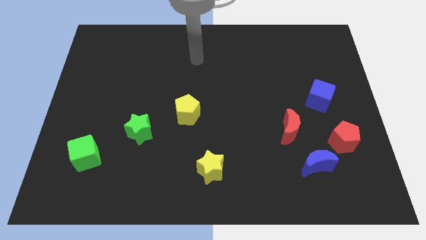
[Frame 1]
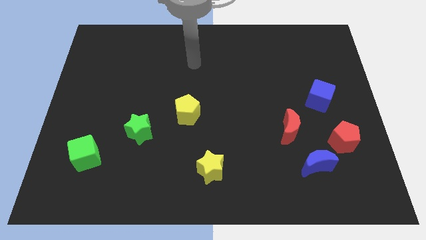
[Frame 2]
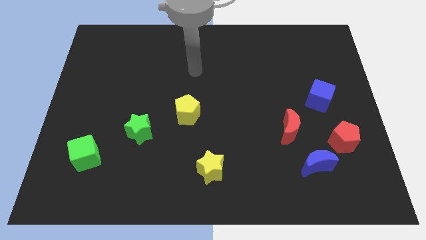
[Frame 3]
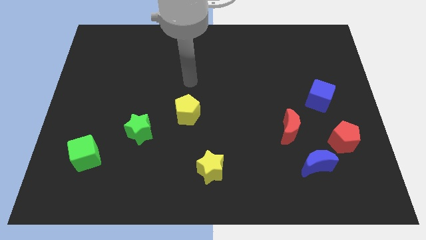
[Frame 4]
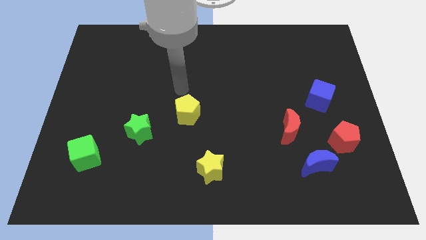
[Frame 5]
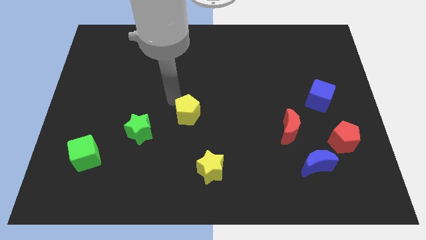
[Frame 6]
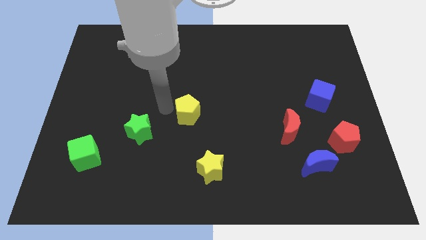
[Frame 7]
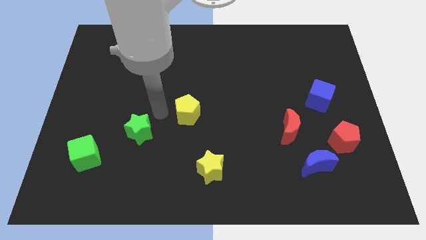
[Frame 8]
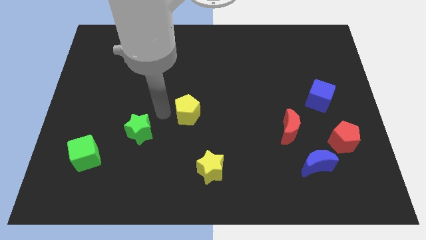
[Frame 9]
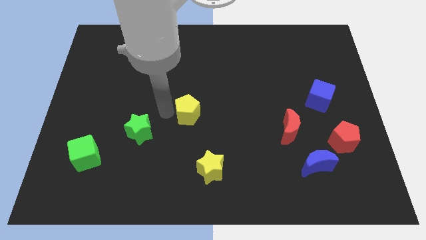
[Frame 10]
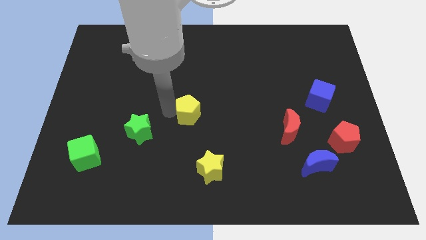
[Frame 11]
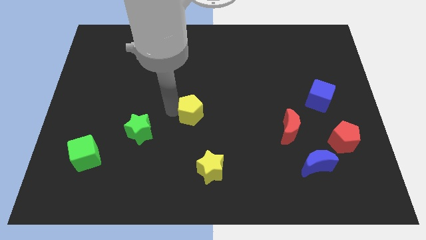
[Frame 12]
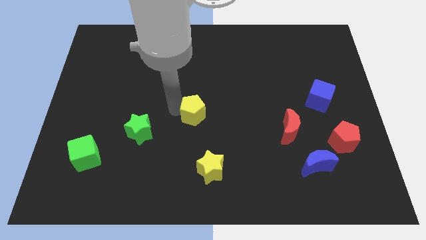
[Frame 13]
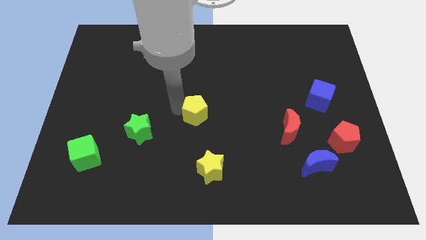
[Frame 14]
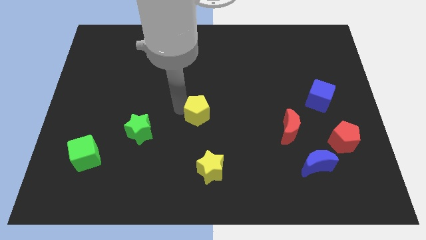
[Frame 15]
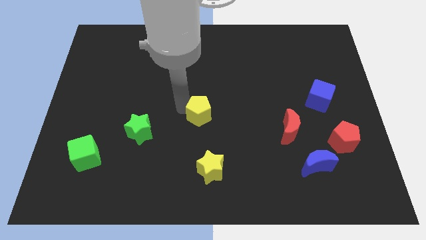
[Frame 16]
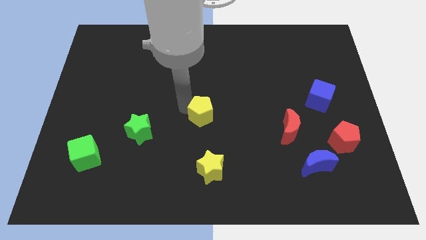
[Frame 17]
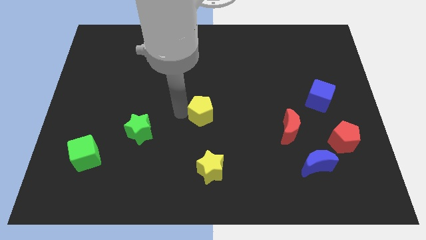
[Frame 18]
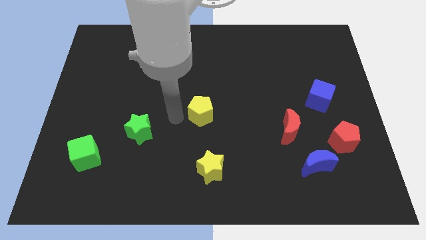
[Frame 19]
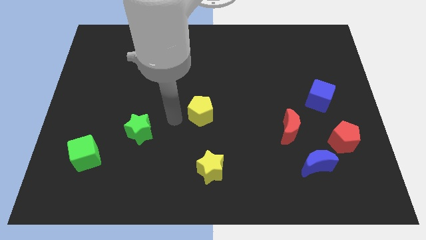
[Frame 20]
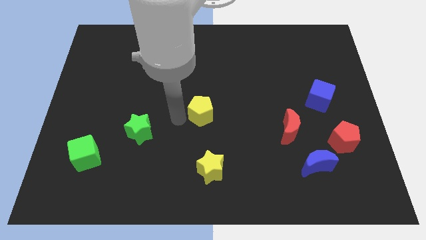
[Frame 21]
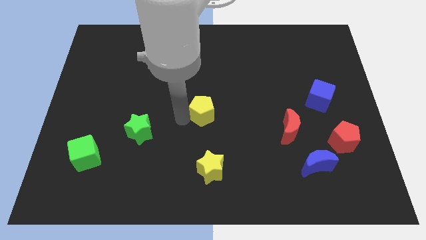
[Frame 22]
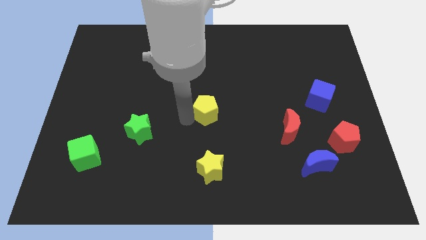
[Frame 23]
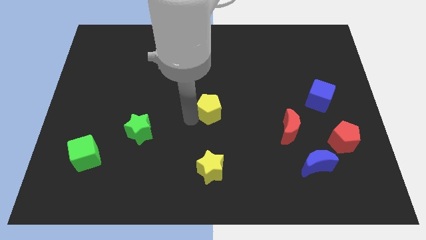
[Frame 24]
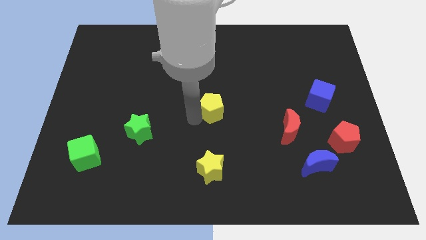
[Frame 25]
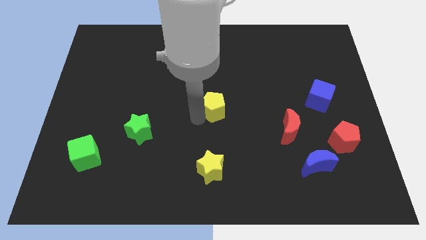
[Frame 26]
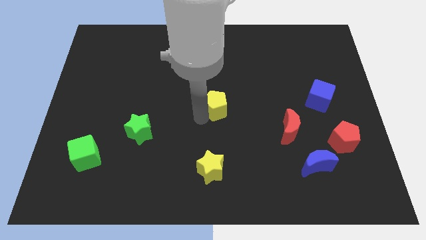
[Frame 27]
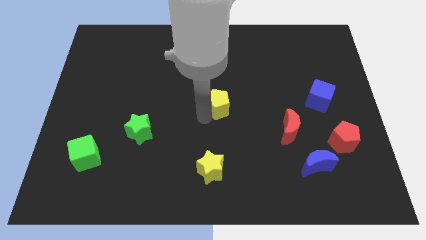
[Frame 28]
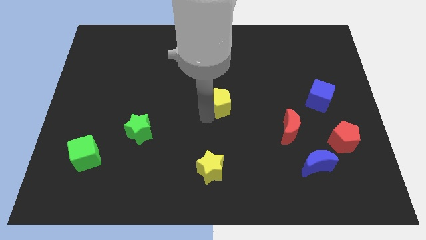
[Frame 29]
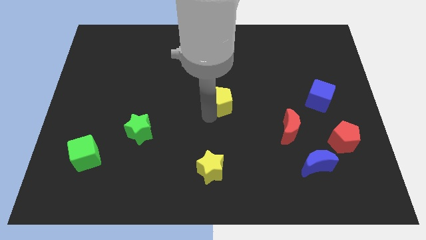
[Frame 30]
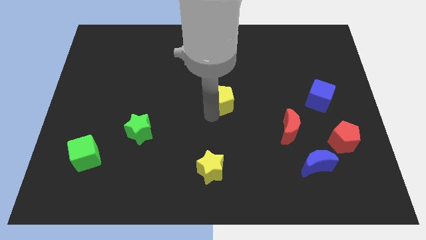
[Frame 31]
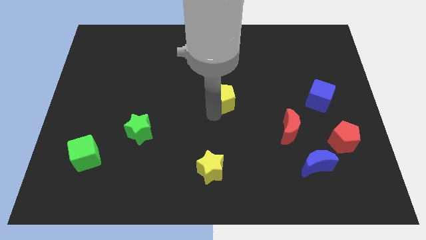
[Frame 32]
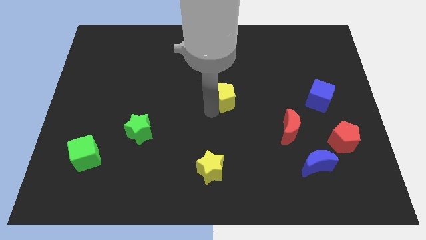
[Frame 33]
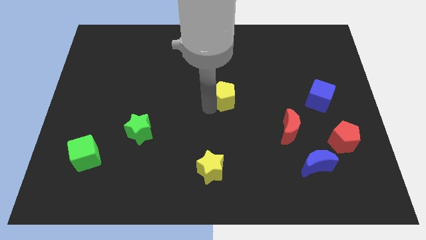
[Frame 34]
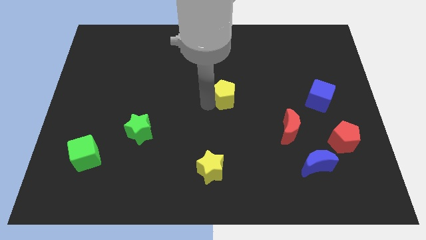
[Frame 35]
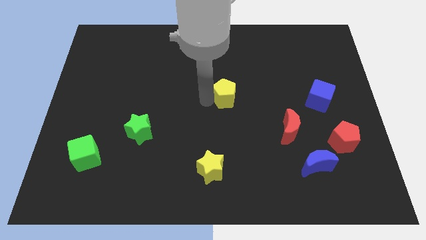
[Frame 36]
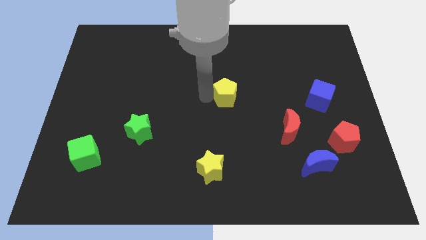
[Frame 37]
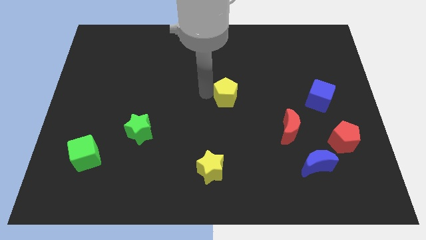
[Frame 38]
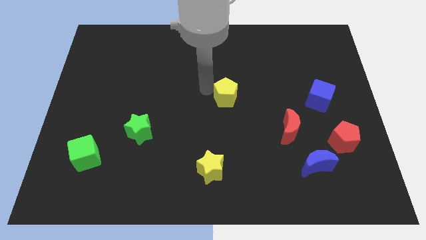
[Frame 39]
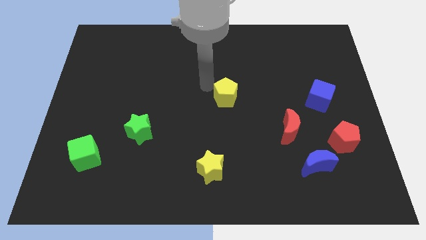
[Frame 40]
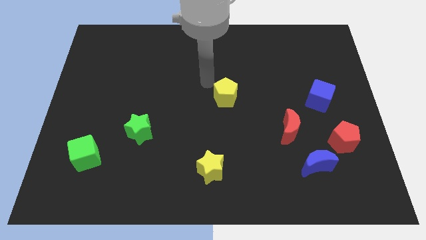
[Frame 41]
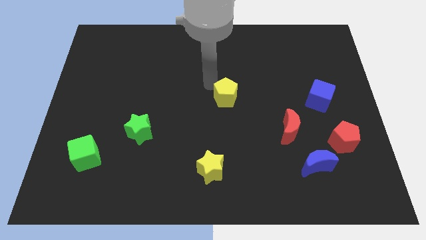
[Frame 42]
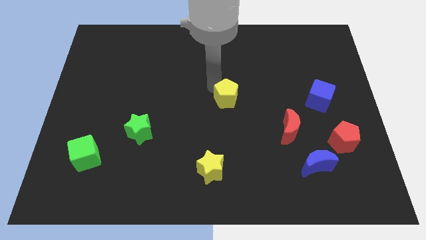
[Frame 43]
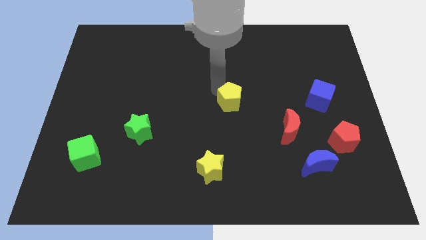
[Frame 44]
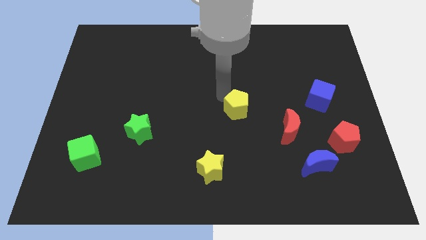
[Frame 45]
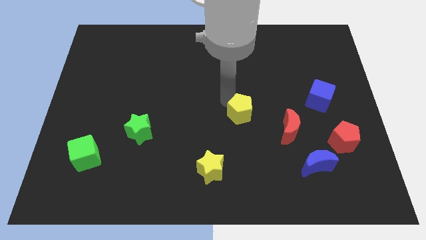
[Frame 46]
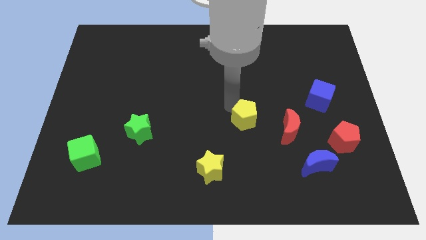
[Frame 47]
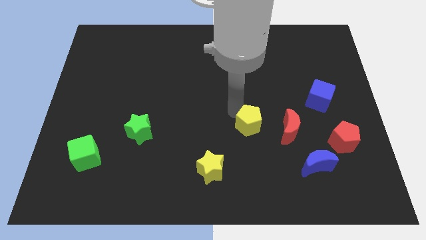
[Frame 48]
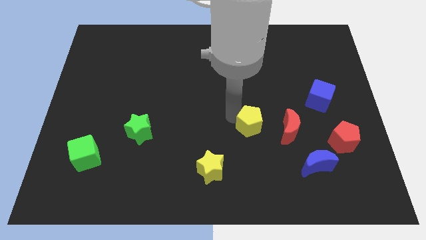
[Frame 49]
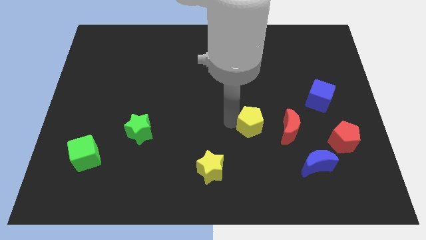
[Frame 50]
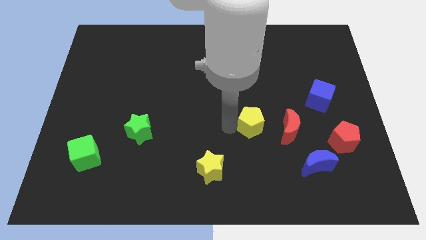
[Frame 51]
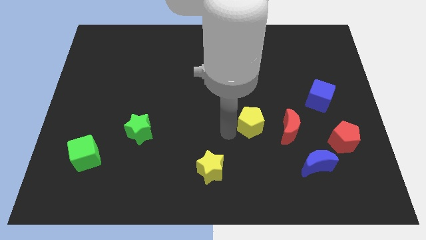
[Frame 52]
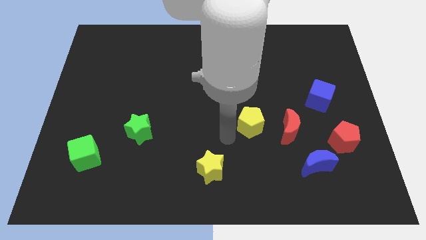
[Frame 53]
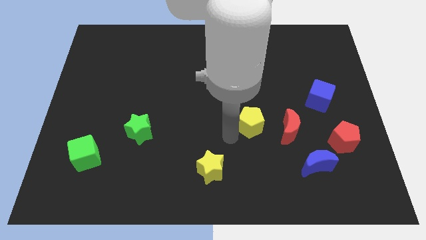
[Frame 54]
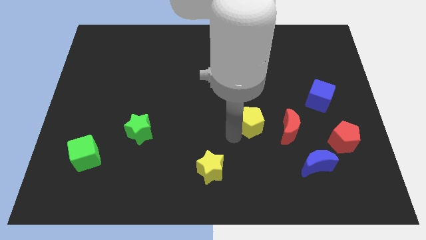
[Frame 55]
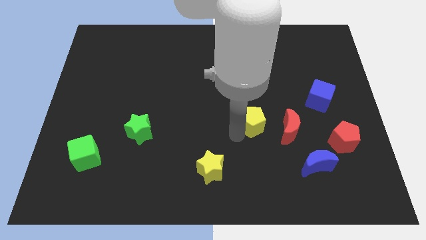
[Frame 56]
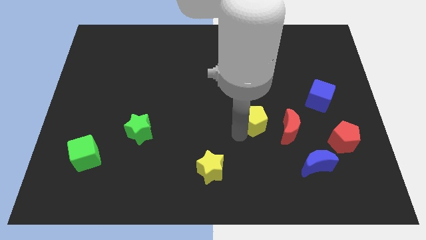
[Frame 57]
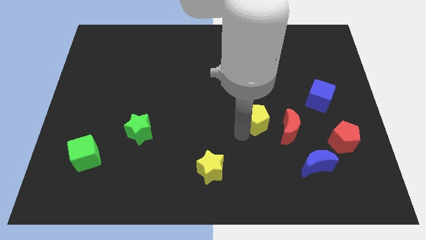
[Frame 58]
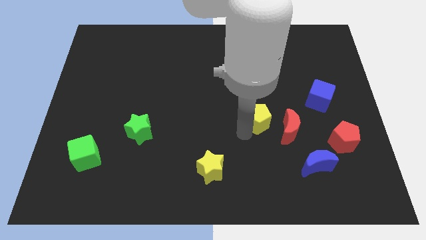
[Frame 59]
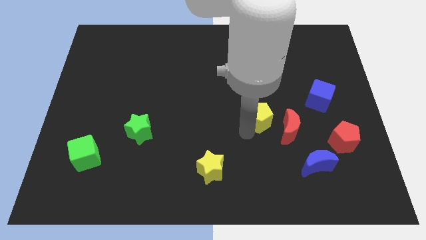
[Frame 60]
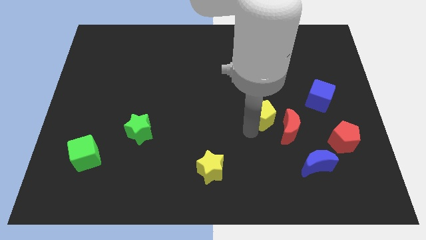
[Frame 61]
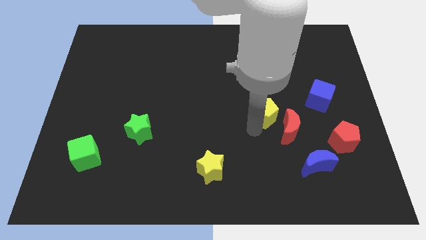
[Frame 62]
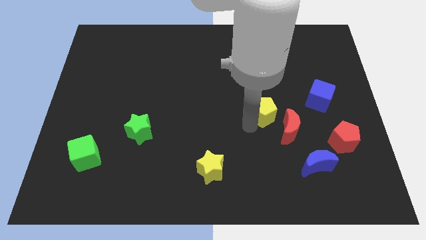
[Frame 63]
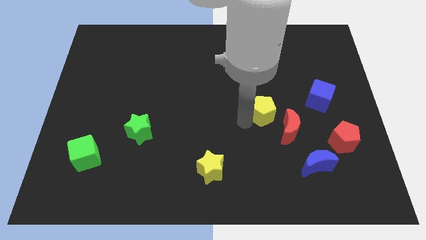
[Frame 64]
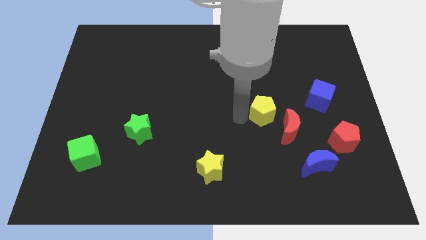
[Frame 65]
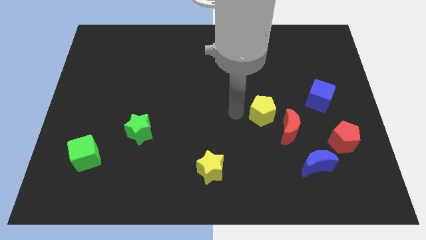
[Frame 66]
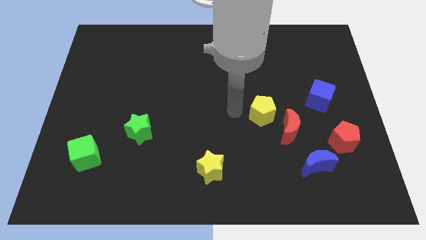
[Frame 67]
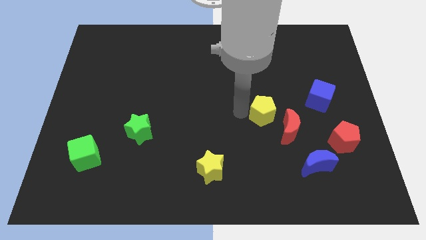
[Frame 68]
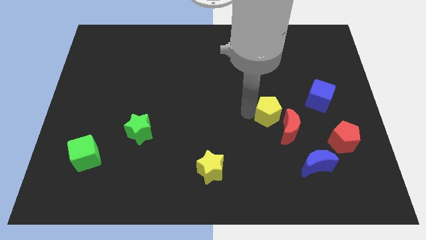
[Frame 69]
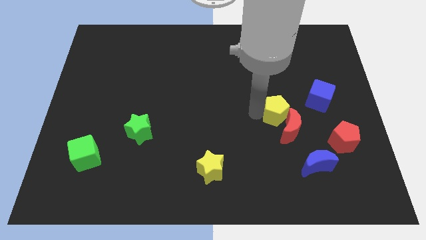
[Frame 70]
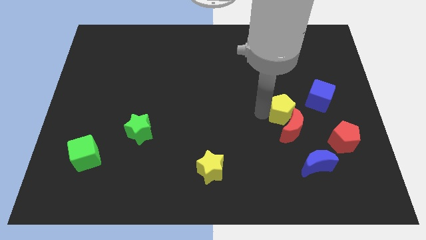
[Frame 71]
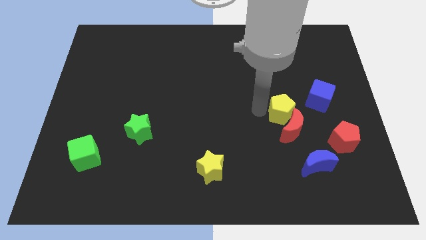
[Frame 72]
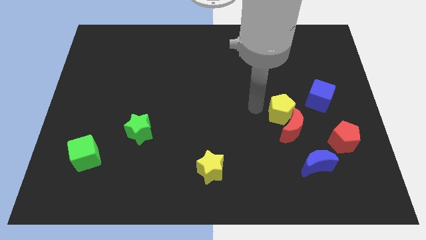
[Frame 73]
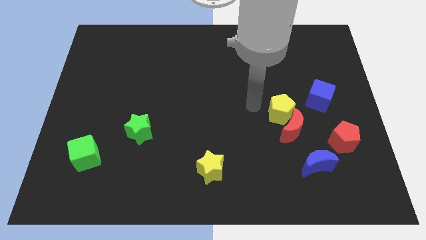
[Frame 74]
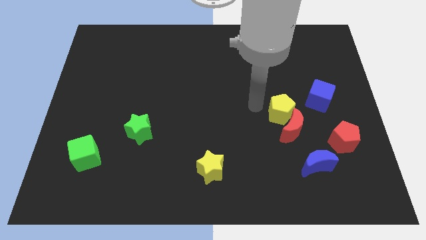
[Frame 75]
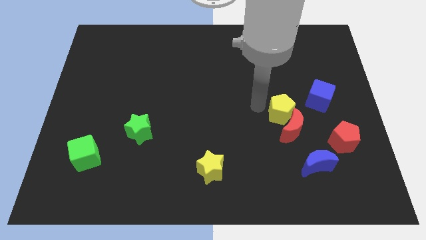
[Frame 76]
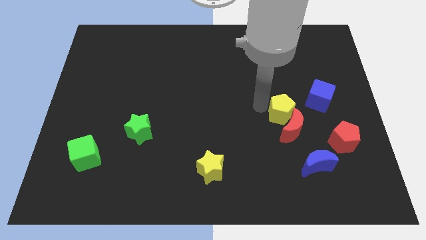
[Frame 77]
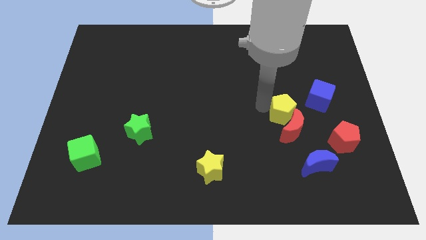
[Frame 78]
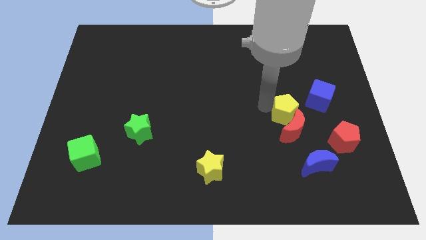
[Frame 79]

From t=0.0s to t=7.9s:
put the yellow pentagon diagonally up and to the right of the red moon
